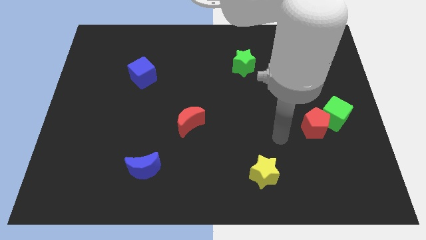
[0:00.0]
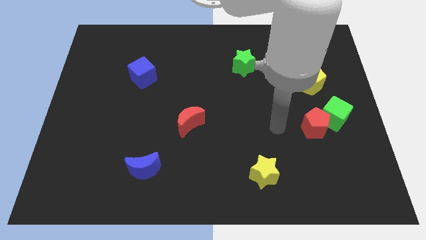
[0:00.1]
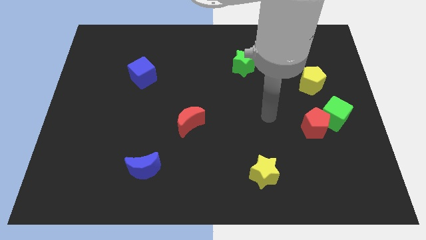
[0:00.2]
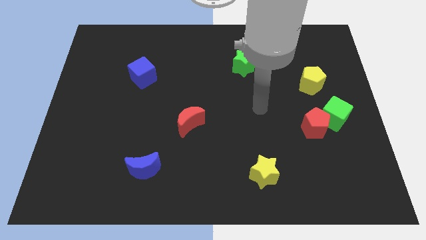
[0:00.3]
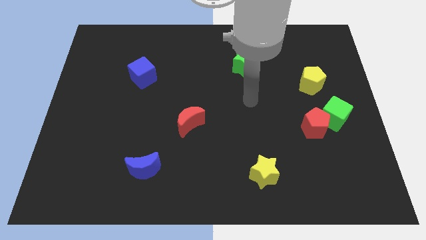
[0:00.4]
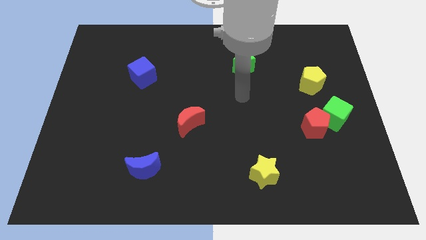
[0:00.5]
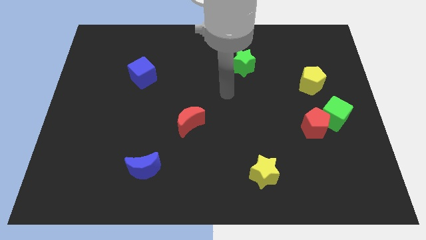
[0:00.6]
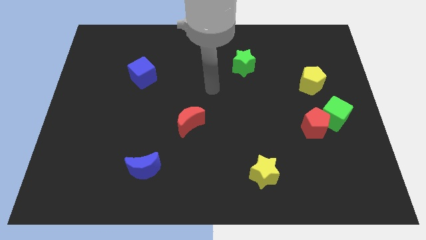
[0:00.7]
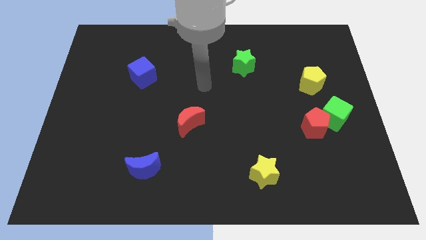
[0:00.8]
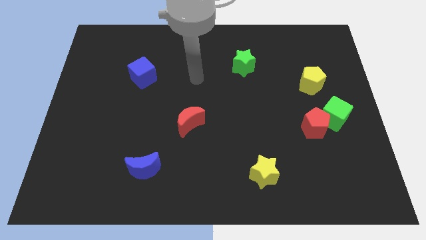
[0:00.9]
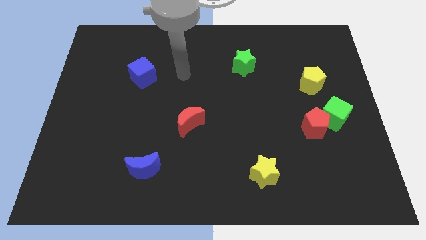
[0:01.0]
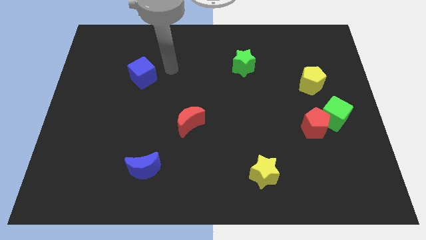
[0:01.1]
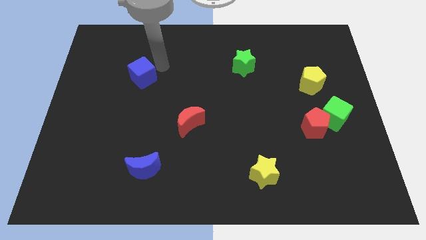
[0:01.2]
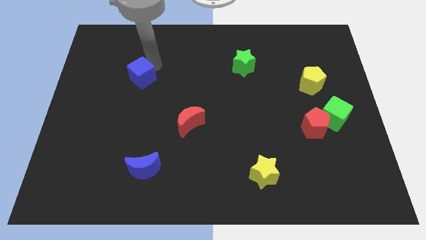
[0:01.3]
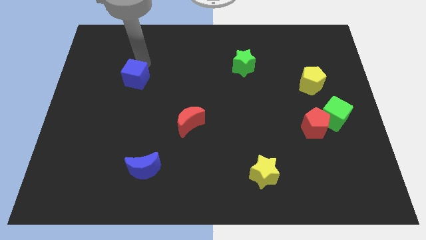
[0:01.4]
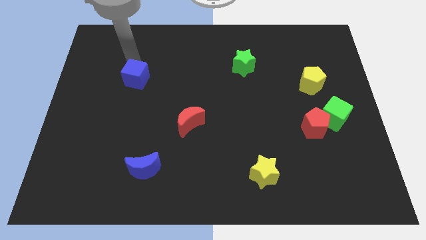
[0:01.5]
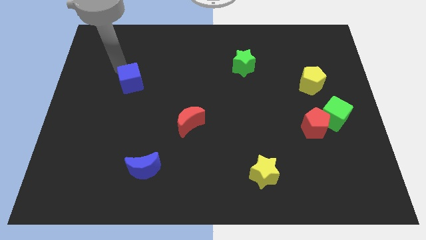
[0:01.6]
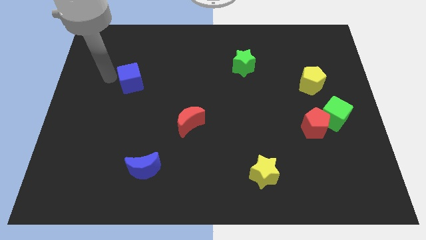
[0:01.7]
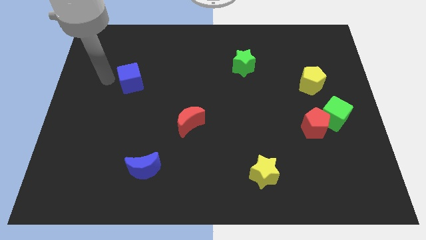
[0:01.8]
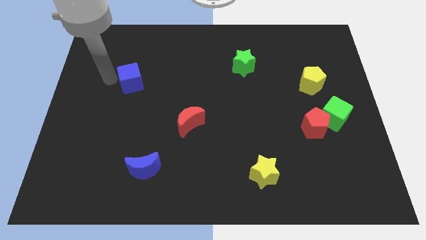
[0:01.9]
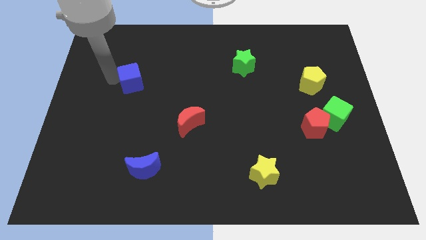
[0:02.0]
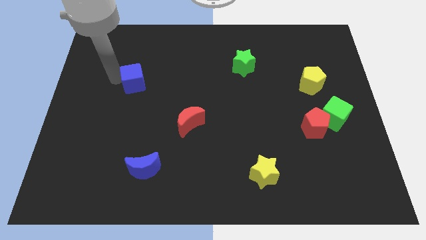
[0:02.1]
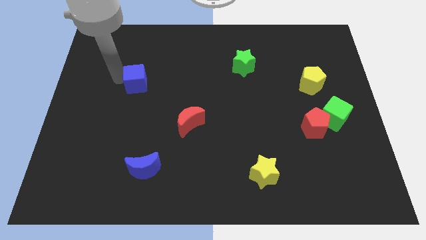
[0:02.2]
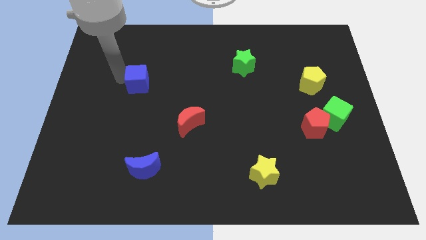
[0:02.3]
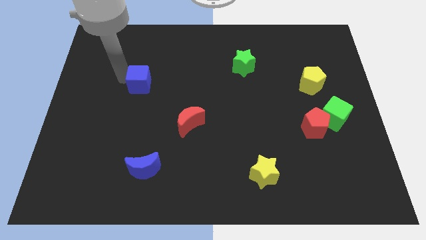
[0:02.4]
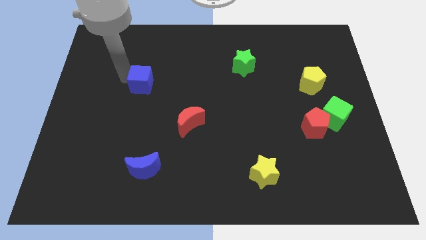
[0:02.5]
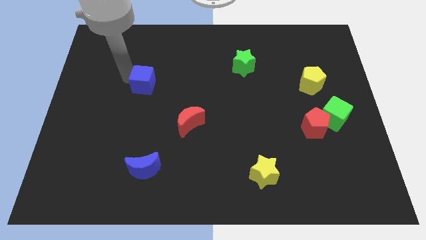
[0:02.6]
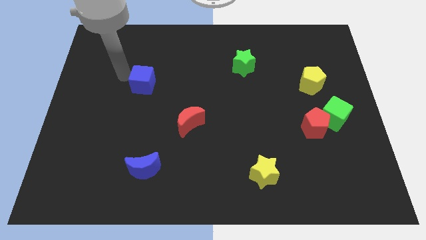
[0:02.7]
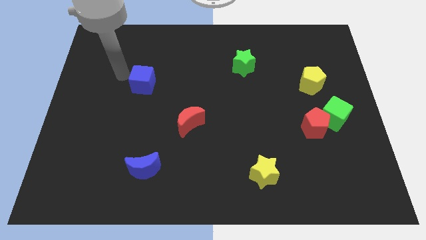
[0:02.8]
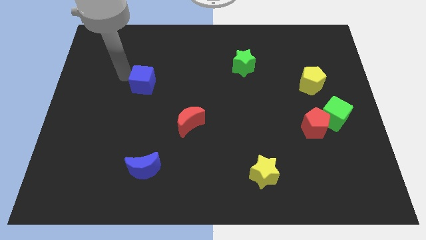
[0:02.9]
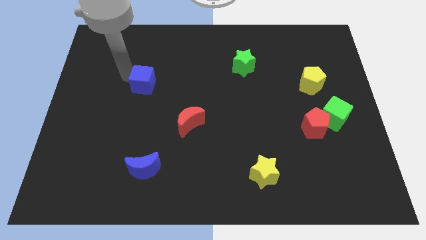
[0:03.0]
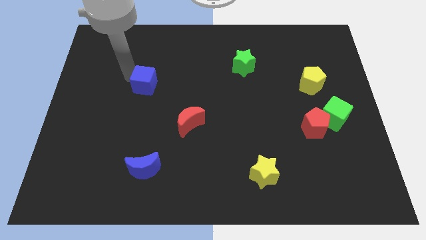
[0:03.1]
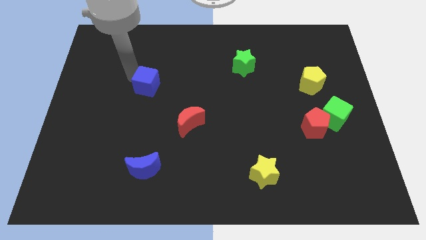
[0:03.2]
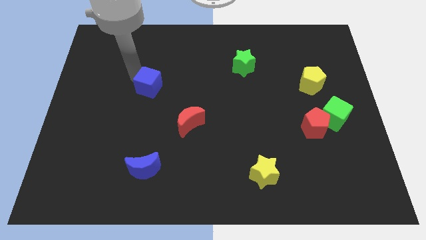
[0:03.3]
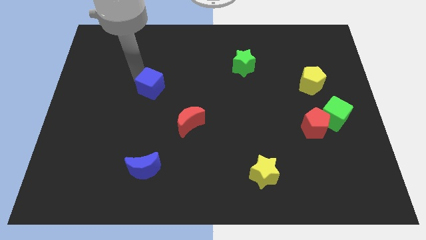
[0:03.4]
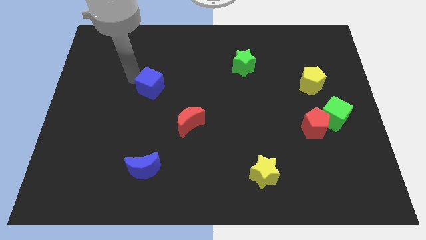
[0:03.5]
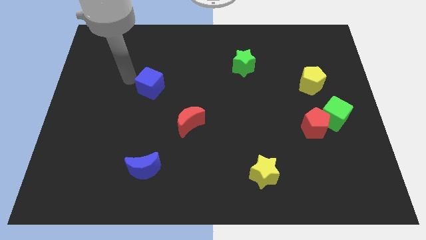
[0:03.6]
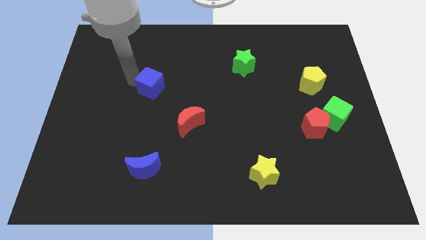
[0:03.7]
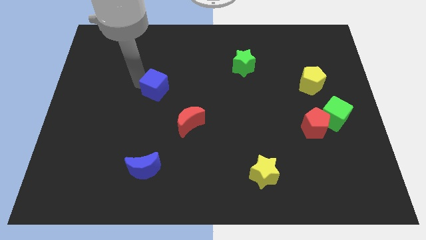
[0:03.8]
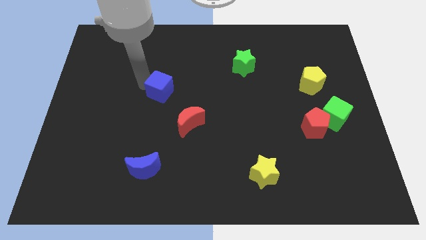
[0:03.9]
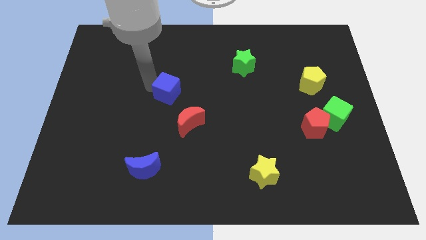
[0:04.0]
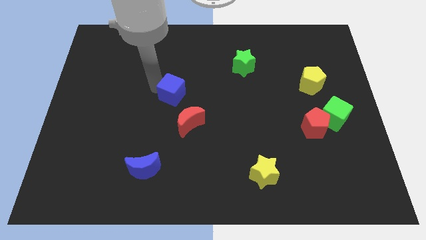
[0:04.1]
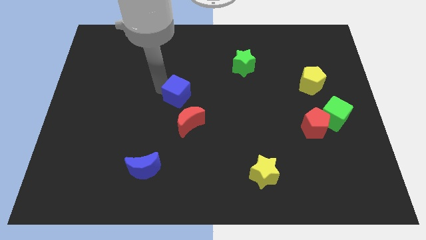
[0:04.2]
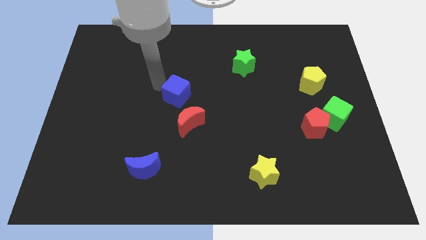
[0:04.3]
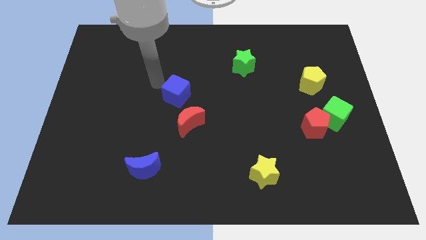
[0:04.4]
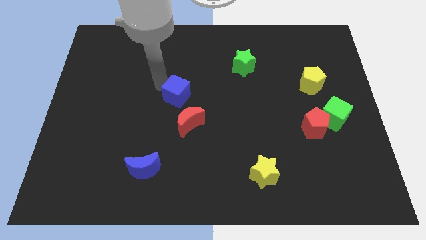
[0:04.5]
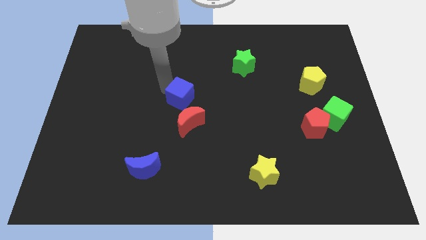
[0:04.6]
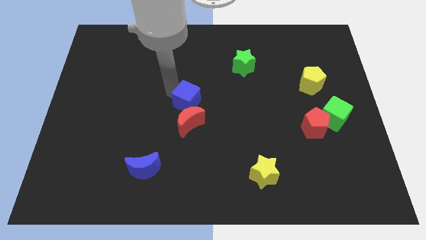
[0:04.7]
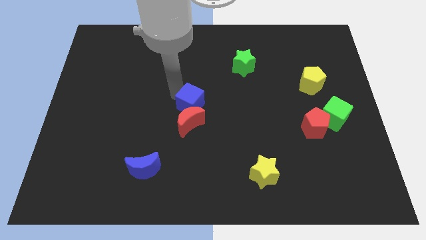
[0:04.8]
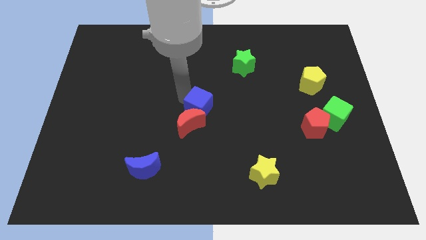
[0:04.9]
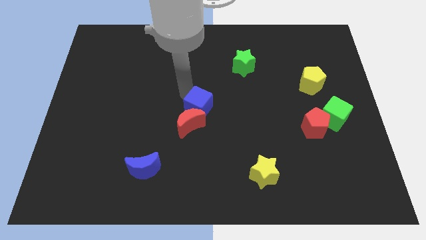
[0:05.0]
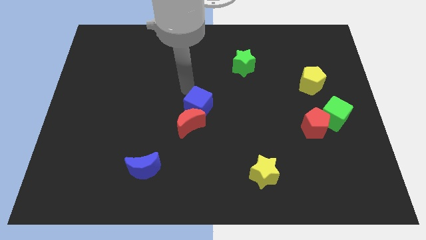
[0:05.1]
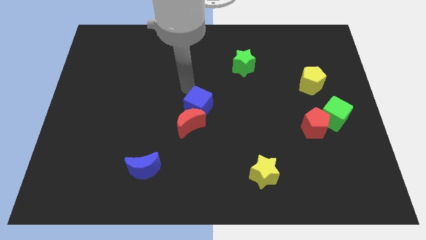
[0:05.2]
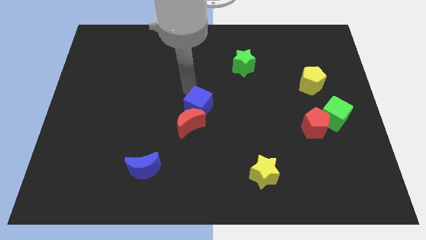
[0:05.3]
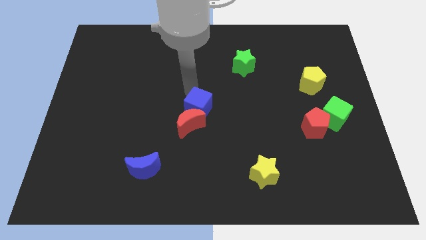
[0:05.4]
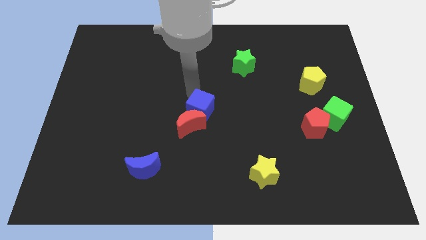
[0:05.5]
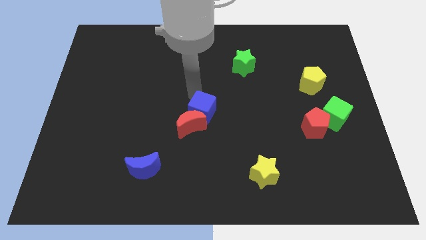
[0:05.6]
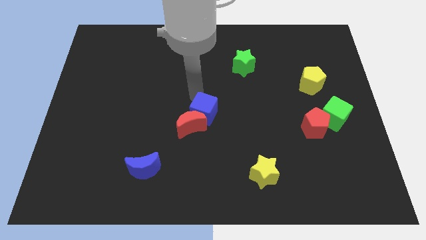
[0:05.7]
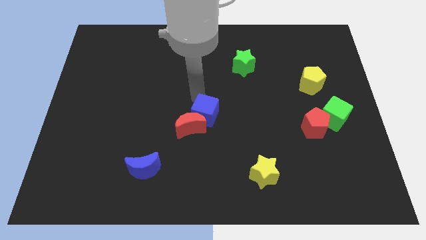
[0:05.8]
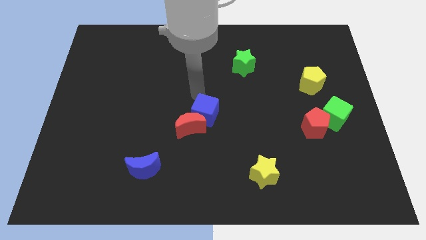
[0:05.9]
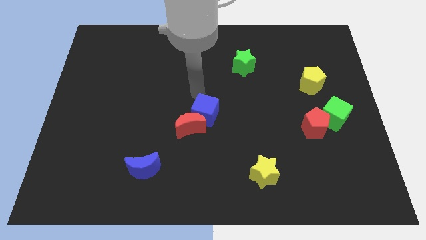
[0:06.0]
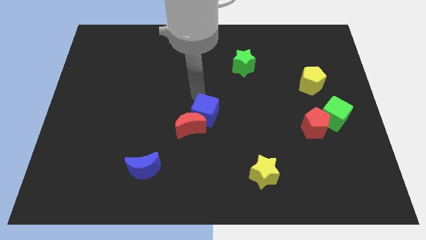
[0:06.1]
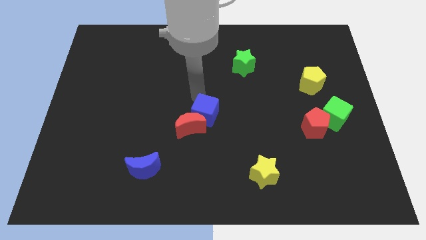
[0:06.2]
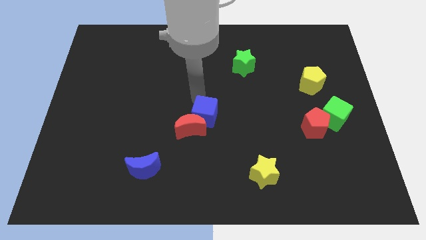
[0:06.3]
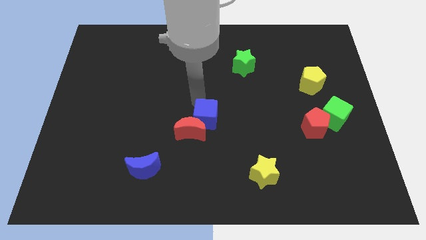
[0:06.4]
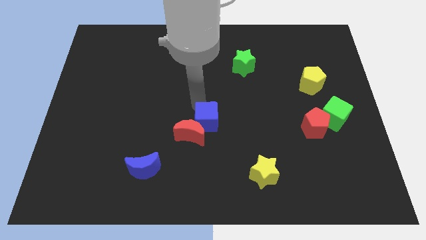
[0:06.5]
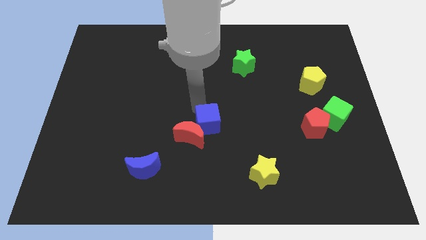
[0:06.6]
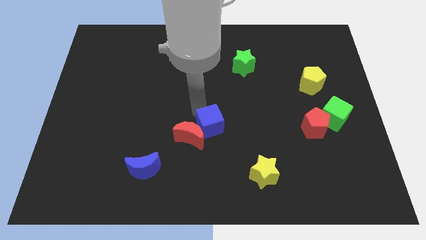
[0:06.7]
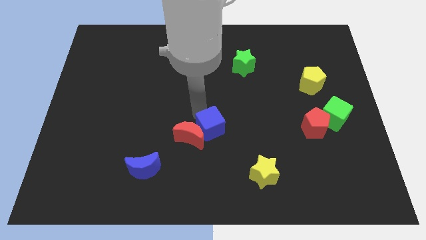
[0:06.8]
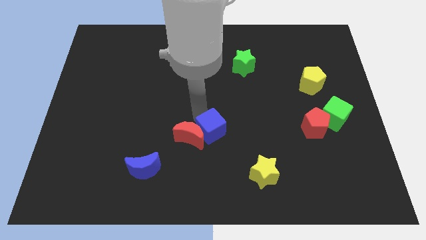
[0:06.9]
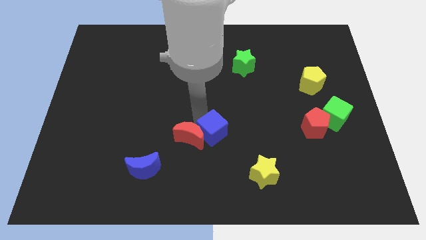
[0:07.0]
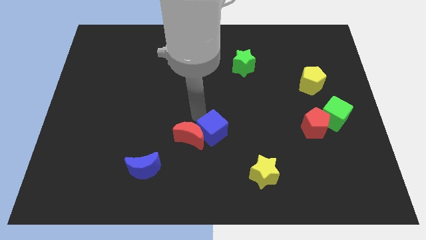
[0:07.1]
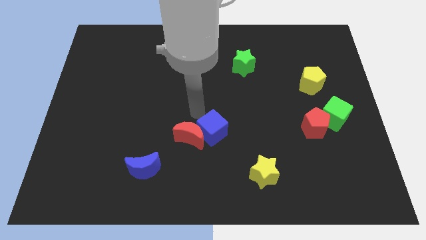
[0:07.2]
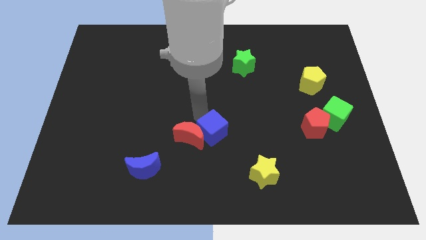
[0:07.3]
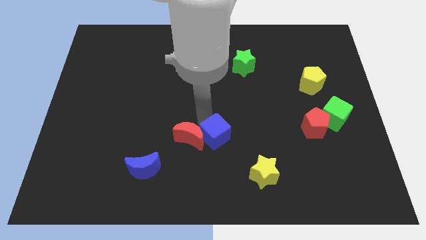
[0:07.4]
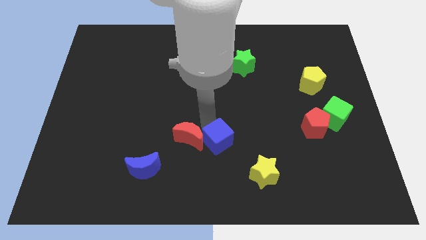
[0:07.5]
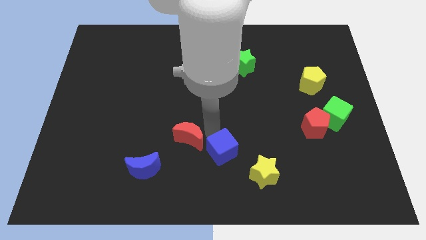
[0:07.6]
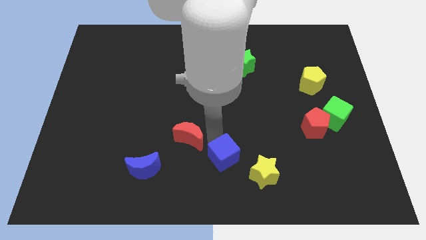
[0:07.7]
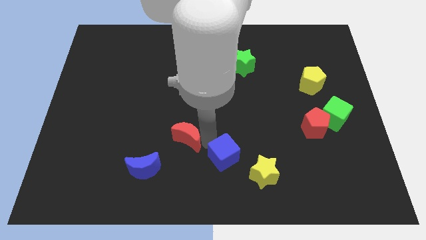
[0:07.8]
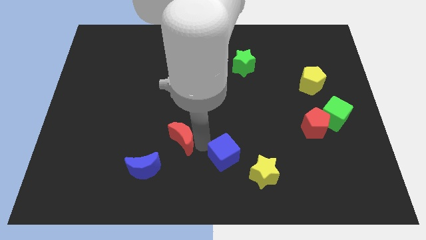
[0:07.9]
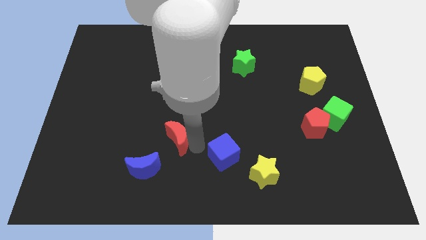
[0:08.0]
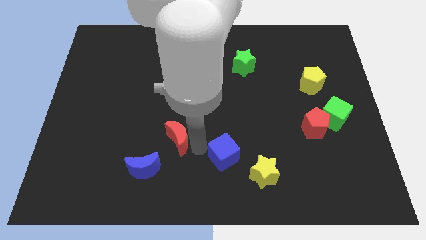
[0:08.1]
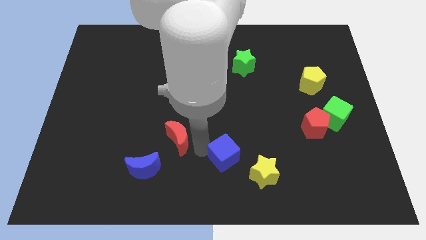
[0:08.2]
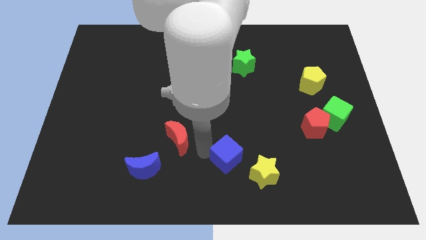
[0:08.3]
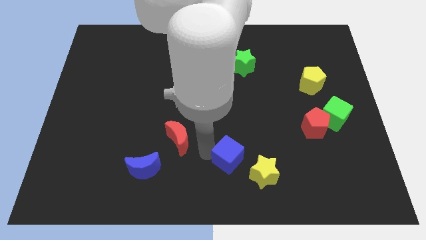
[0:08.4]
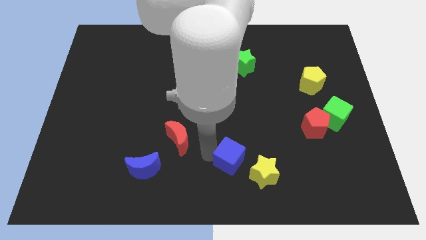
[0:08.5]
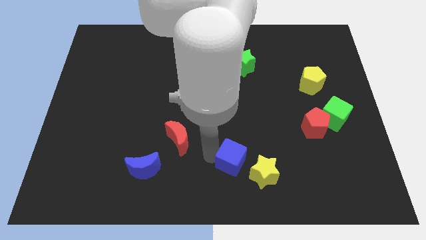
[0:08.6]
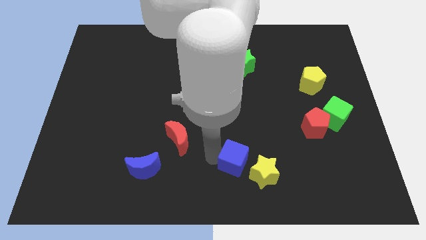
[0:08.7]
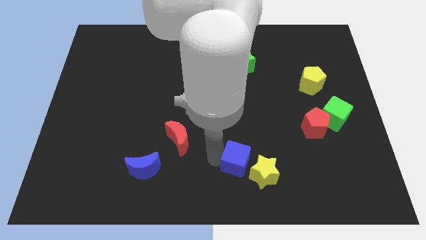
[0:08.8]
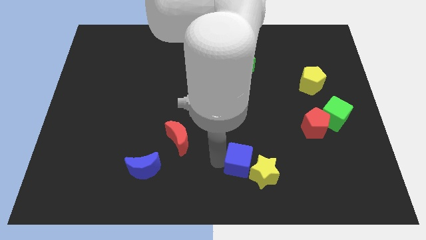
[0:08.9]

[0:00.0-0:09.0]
put the blue cube towards the yellow star
